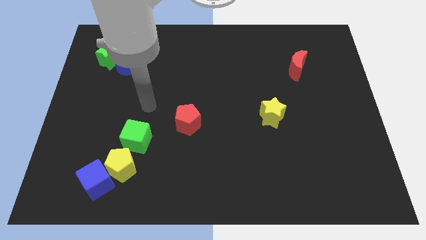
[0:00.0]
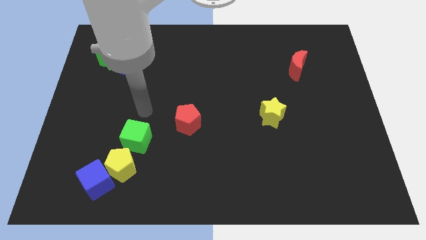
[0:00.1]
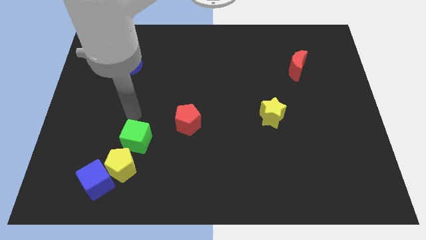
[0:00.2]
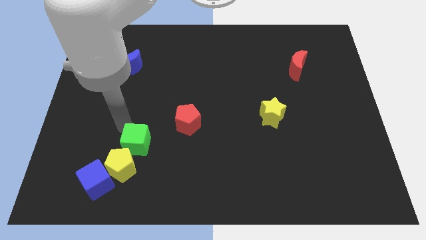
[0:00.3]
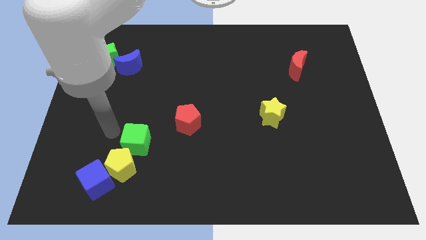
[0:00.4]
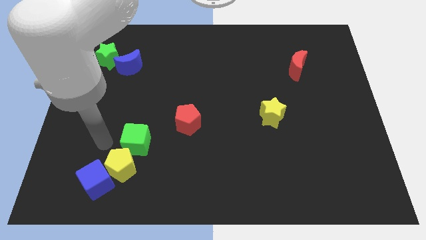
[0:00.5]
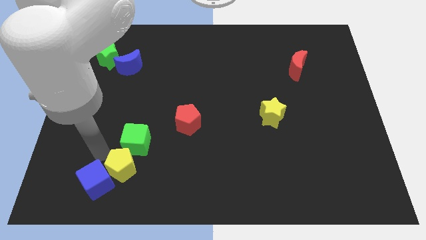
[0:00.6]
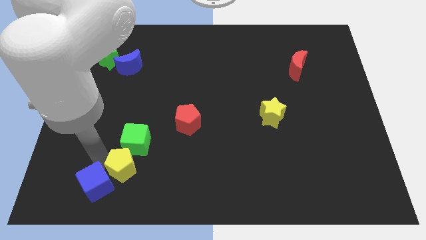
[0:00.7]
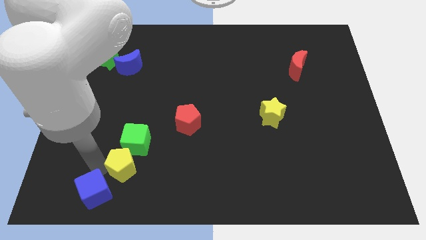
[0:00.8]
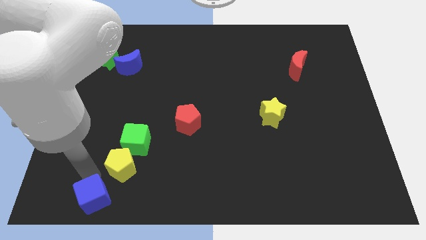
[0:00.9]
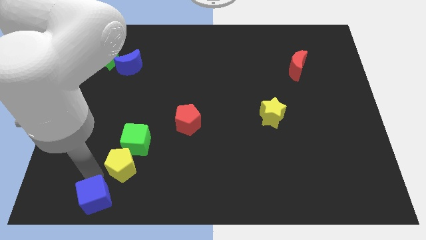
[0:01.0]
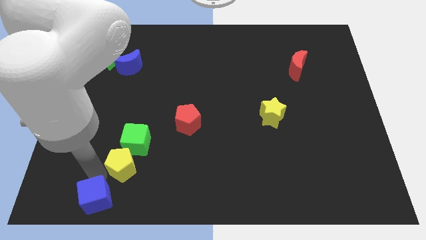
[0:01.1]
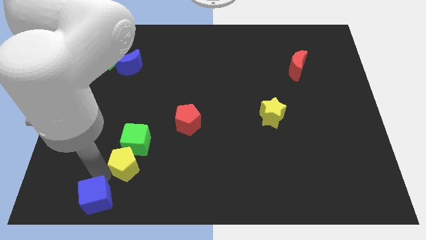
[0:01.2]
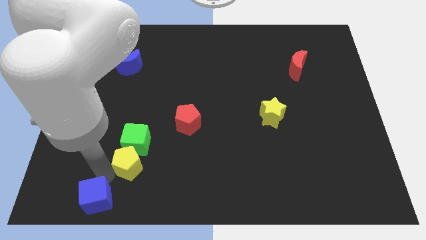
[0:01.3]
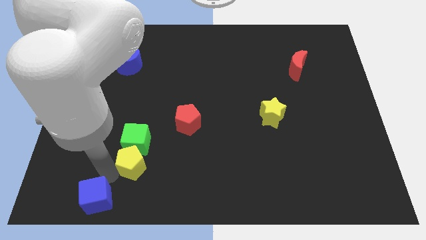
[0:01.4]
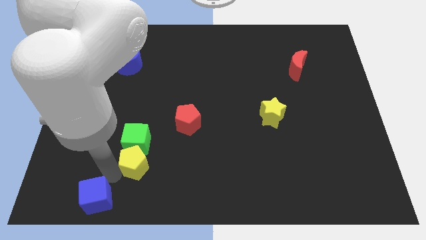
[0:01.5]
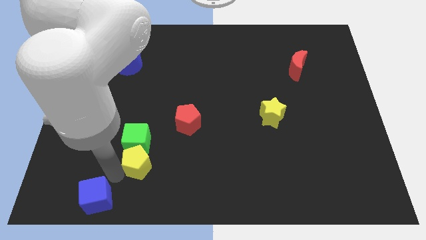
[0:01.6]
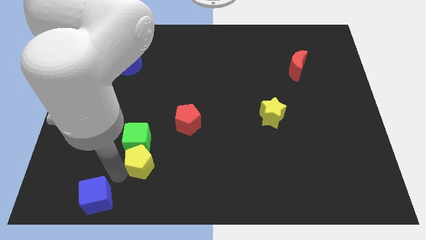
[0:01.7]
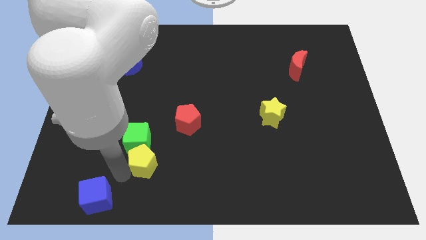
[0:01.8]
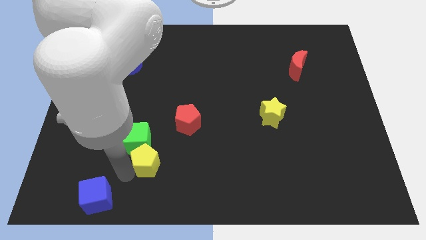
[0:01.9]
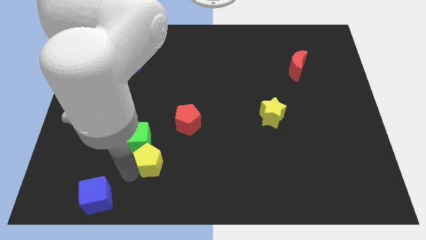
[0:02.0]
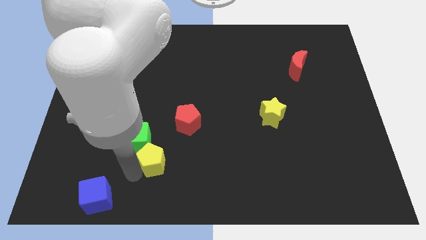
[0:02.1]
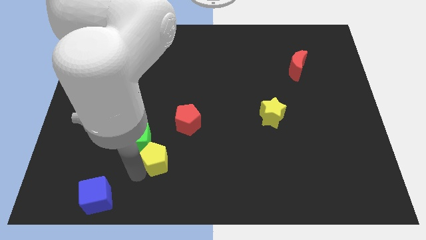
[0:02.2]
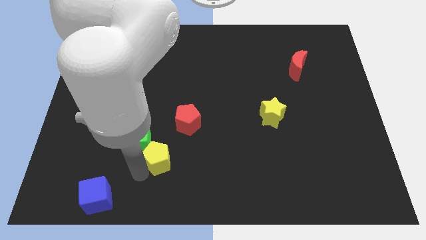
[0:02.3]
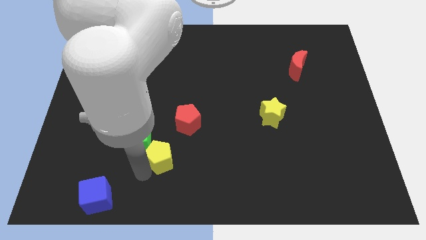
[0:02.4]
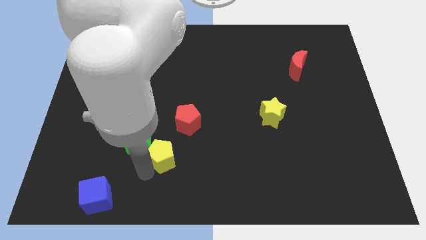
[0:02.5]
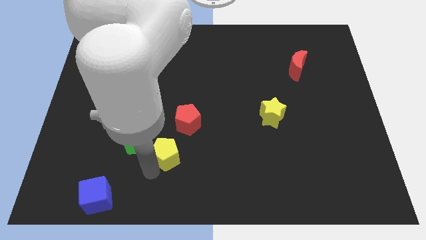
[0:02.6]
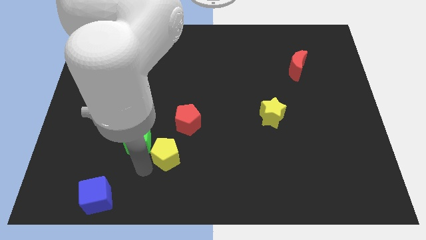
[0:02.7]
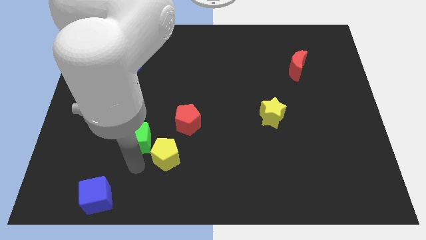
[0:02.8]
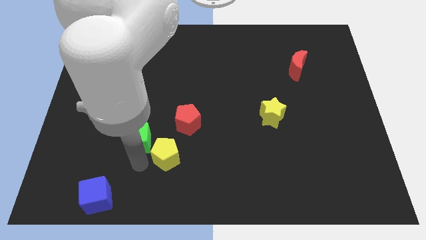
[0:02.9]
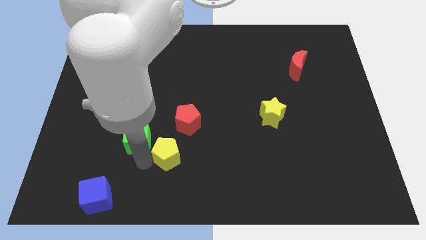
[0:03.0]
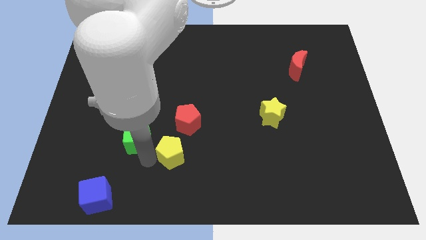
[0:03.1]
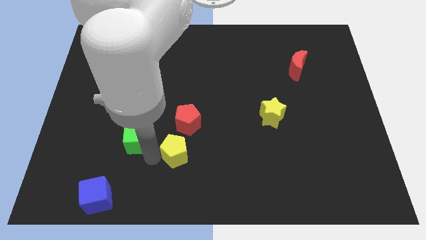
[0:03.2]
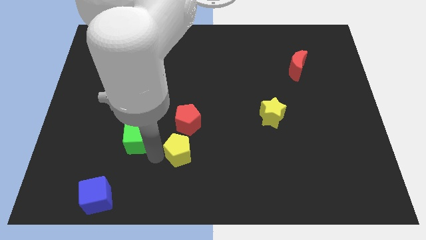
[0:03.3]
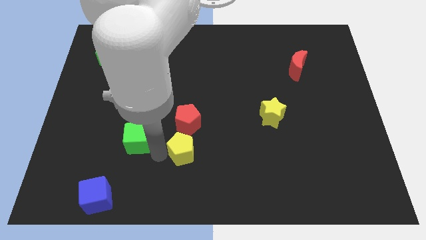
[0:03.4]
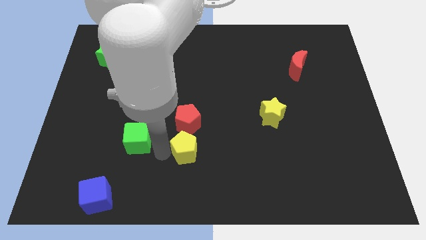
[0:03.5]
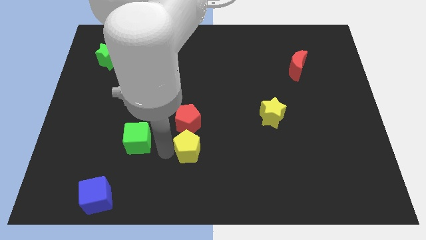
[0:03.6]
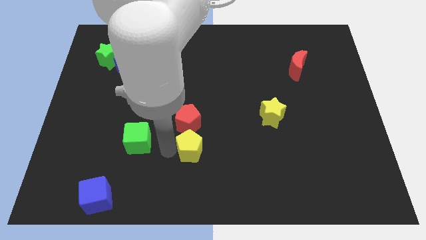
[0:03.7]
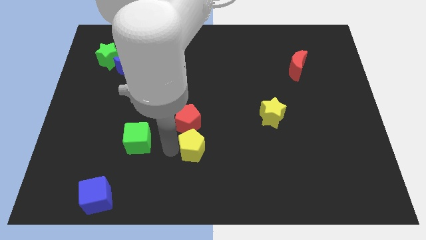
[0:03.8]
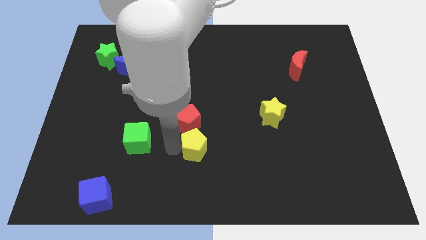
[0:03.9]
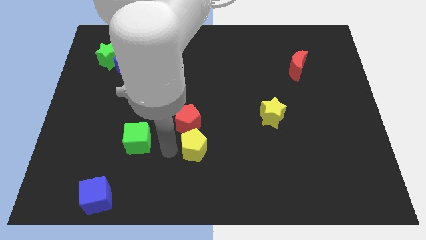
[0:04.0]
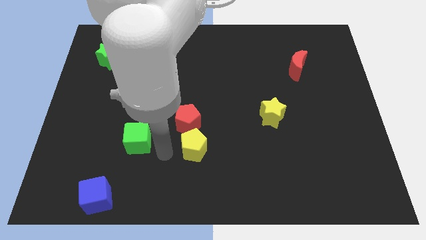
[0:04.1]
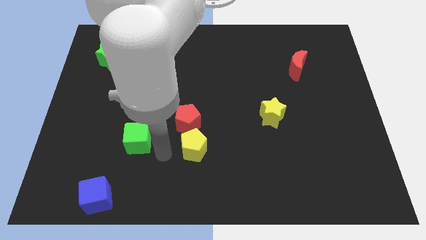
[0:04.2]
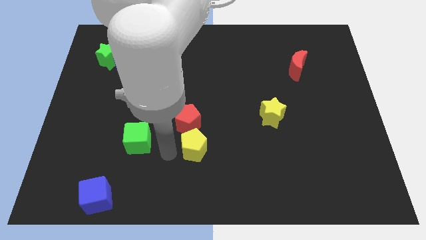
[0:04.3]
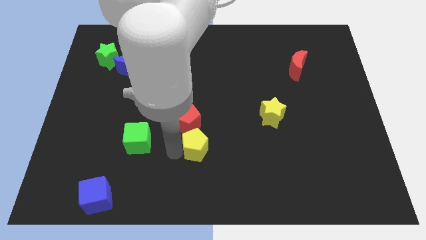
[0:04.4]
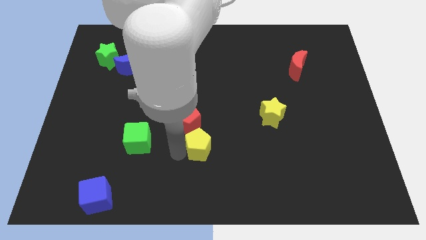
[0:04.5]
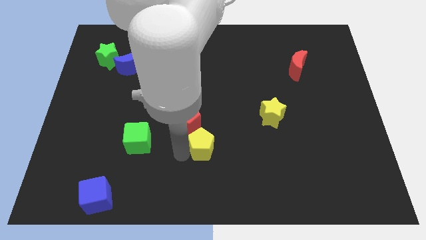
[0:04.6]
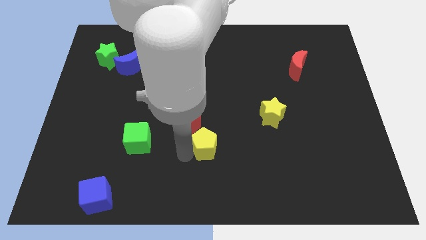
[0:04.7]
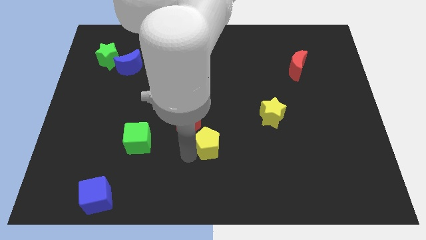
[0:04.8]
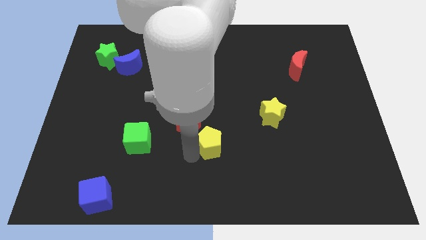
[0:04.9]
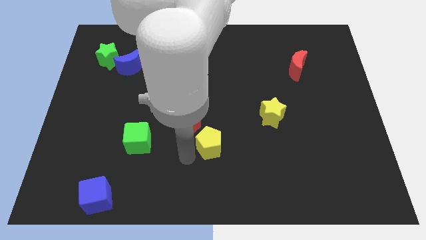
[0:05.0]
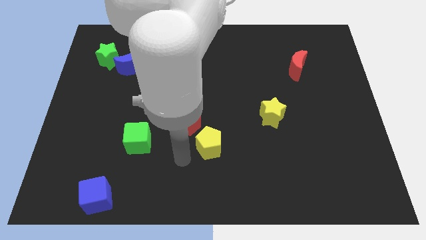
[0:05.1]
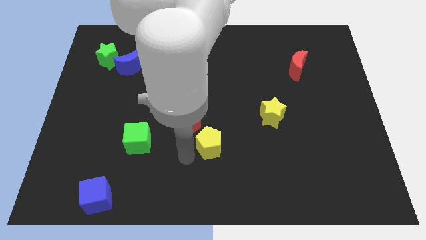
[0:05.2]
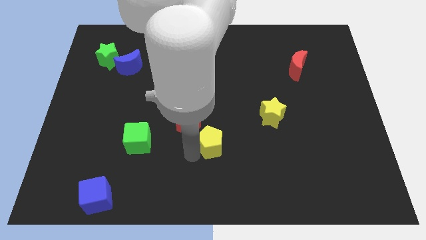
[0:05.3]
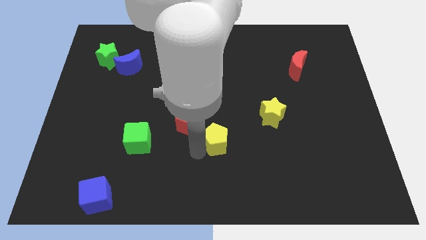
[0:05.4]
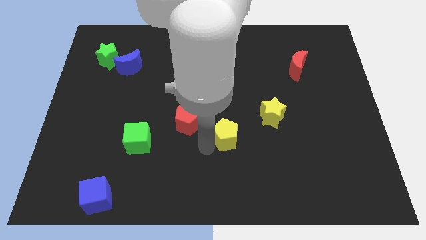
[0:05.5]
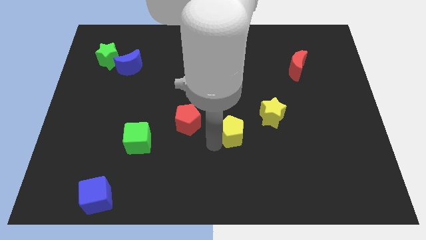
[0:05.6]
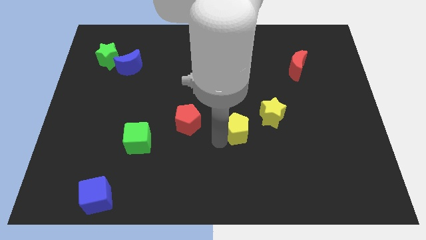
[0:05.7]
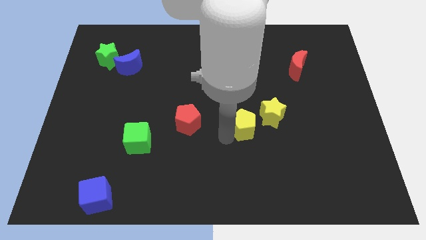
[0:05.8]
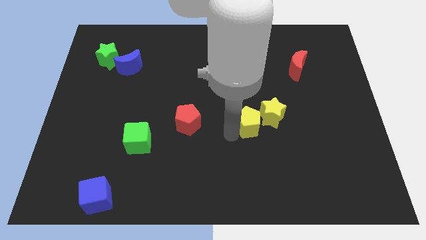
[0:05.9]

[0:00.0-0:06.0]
push the yellow pentagon towards the yellow star

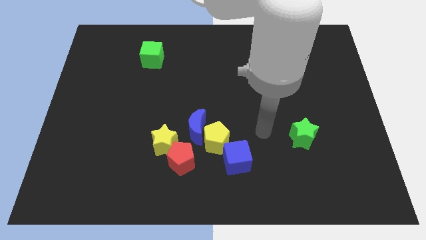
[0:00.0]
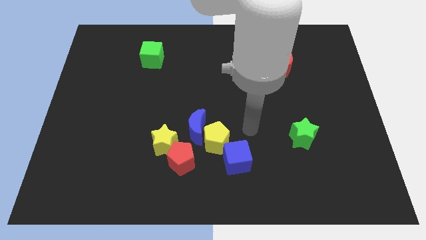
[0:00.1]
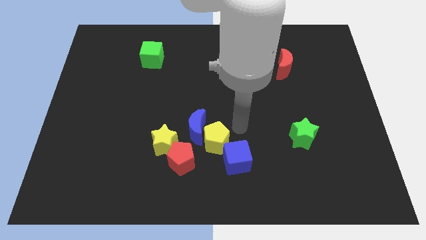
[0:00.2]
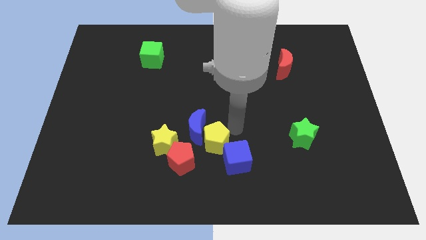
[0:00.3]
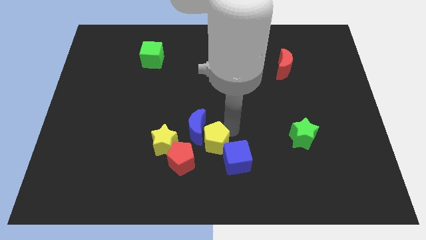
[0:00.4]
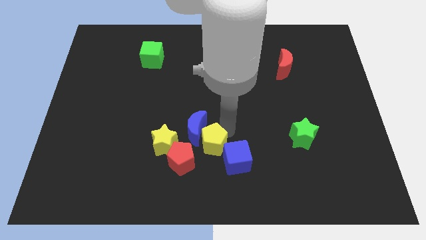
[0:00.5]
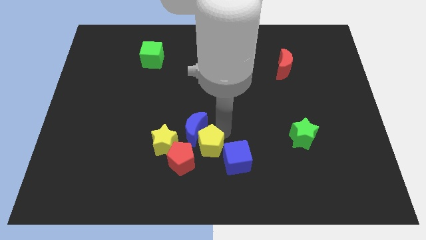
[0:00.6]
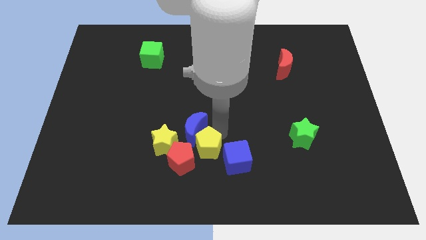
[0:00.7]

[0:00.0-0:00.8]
slide the yellow pentagon next to the red pentagon

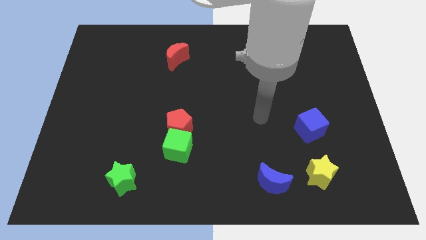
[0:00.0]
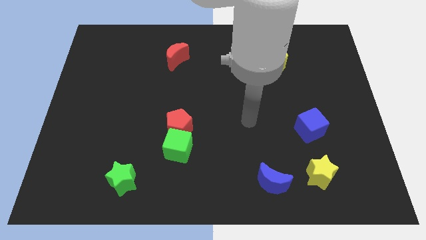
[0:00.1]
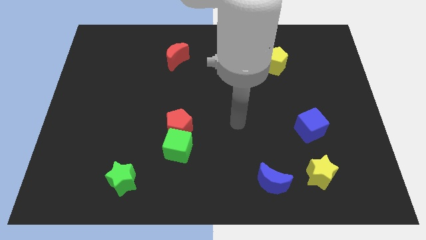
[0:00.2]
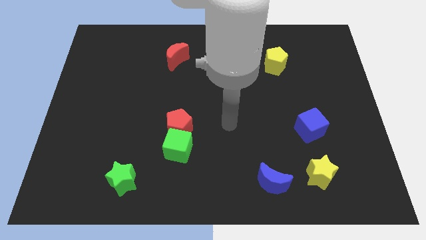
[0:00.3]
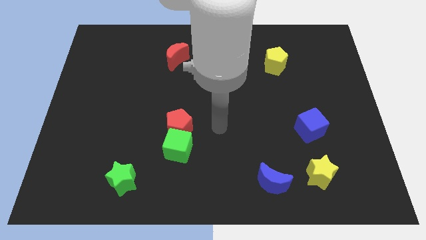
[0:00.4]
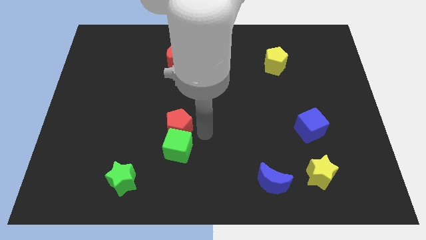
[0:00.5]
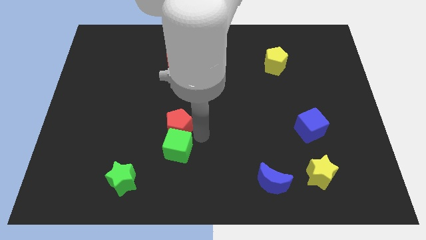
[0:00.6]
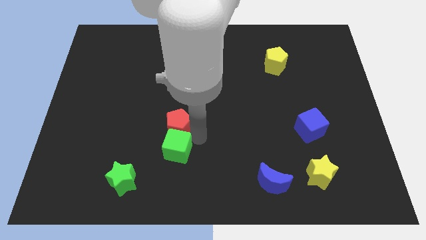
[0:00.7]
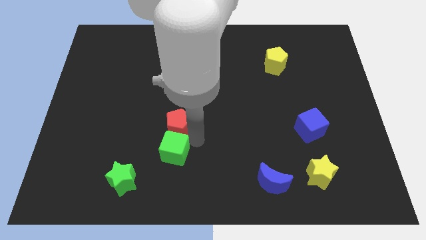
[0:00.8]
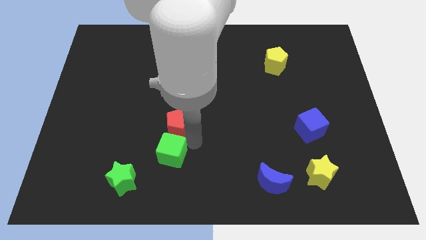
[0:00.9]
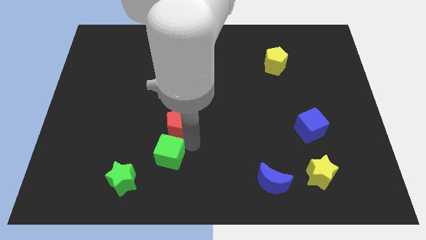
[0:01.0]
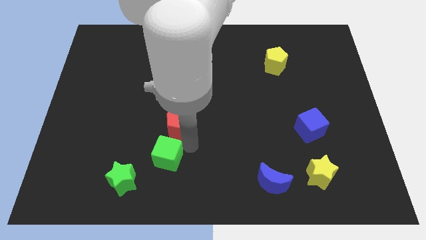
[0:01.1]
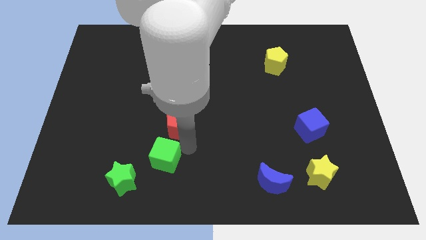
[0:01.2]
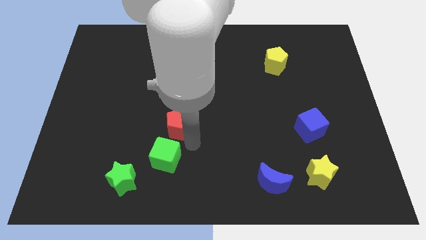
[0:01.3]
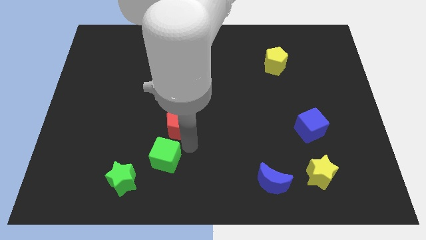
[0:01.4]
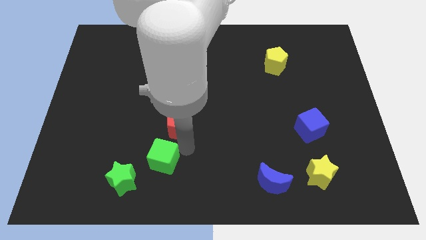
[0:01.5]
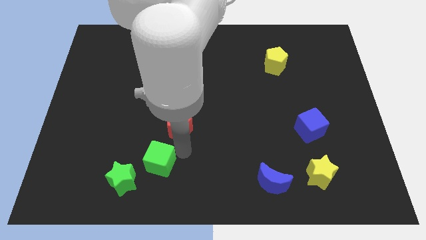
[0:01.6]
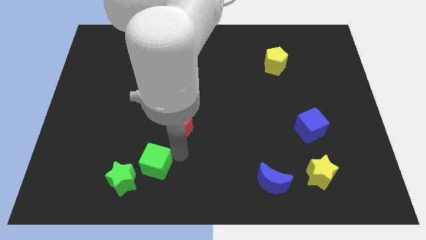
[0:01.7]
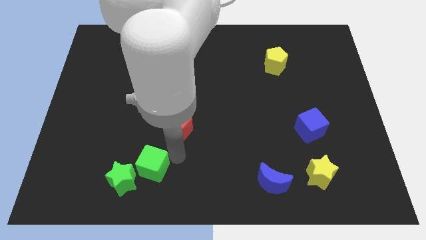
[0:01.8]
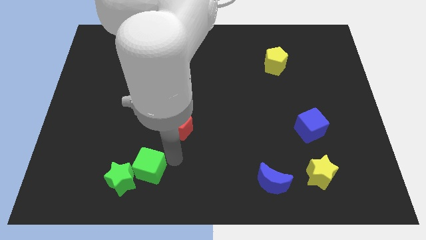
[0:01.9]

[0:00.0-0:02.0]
push the green cube to the green star
